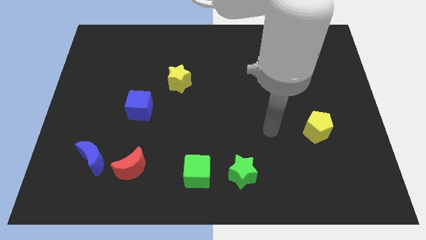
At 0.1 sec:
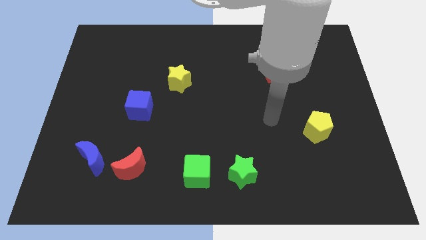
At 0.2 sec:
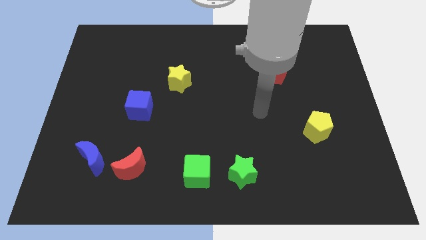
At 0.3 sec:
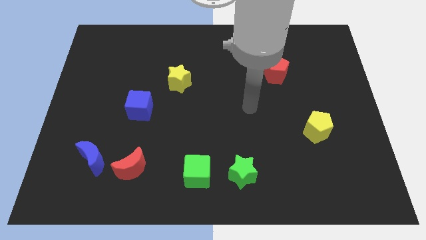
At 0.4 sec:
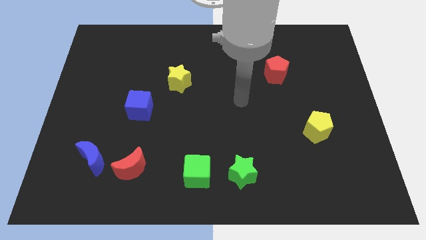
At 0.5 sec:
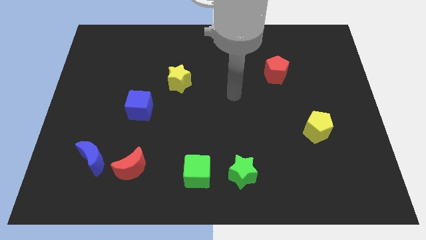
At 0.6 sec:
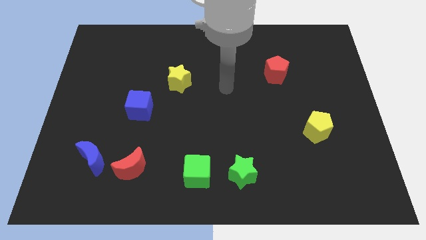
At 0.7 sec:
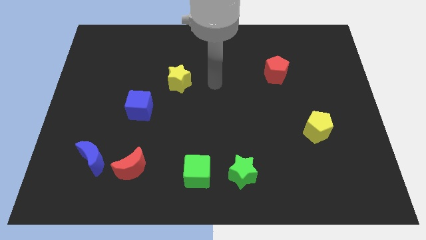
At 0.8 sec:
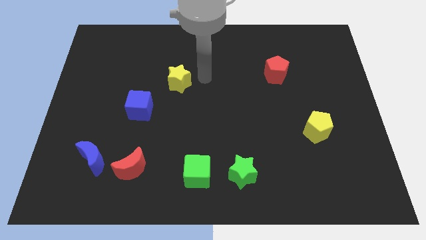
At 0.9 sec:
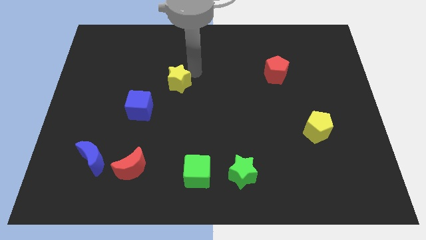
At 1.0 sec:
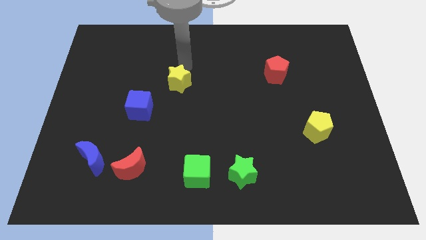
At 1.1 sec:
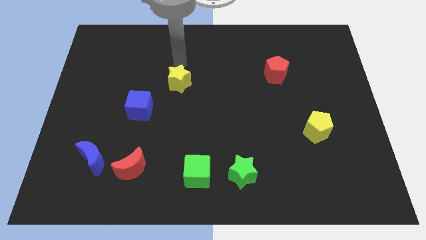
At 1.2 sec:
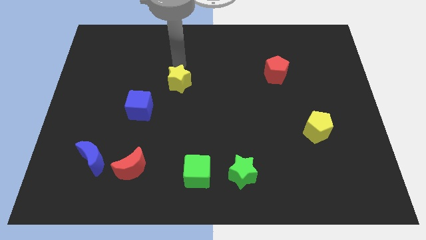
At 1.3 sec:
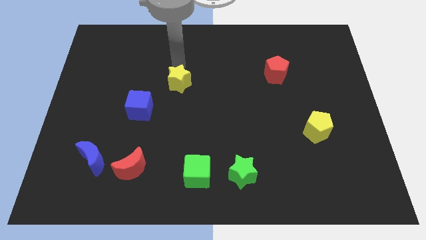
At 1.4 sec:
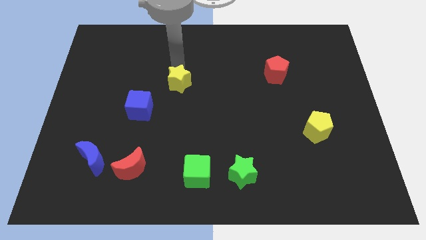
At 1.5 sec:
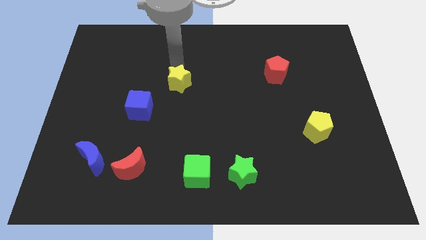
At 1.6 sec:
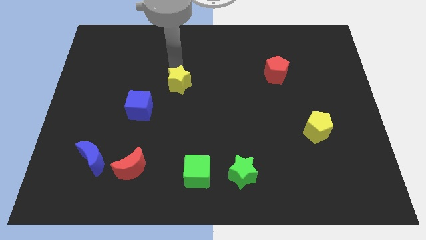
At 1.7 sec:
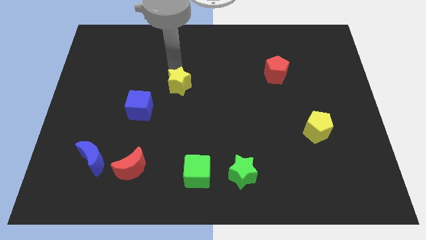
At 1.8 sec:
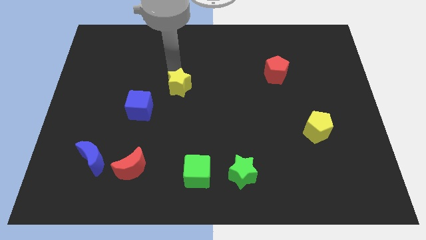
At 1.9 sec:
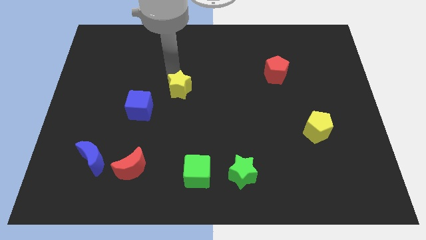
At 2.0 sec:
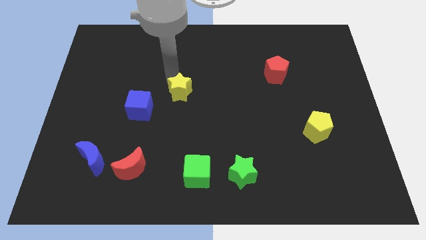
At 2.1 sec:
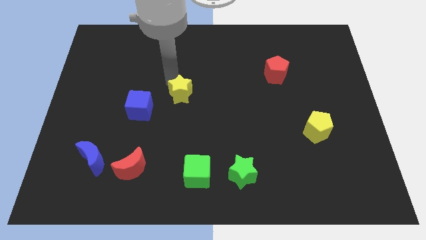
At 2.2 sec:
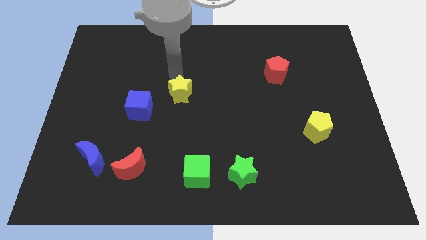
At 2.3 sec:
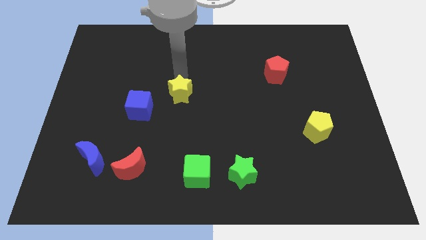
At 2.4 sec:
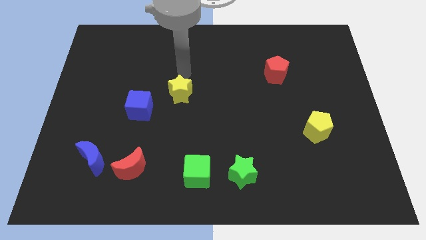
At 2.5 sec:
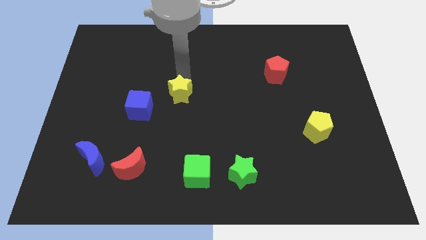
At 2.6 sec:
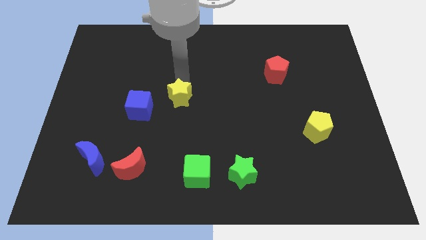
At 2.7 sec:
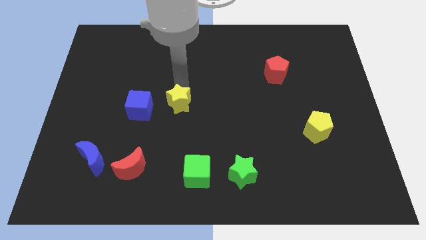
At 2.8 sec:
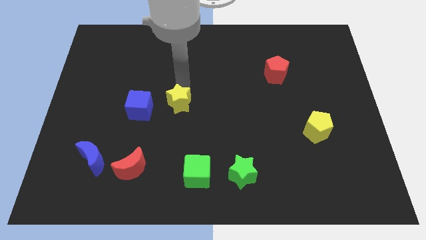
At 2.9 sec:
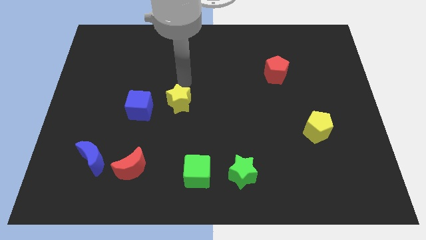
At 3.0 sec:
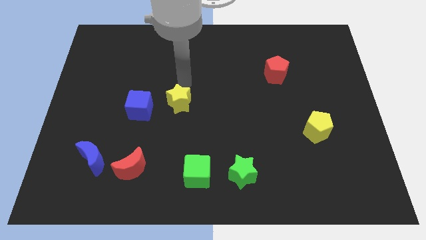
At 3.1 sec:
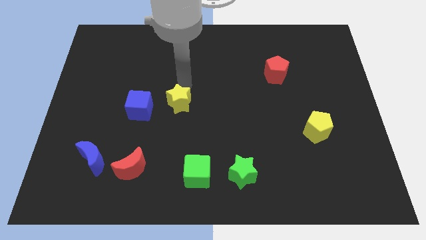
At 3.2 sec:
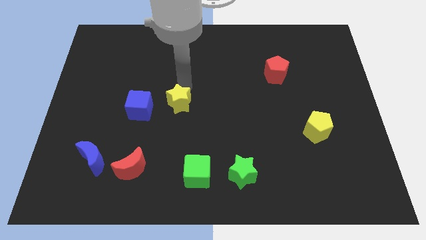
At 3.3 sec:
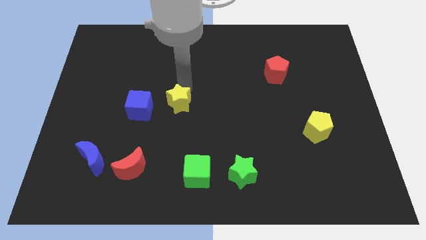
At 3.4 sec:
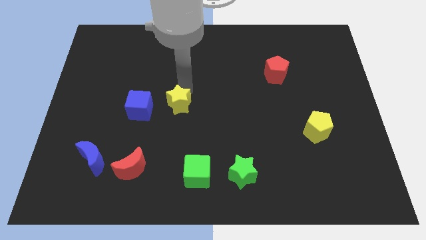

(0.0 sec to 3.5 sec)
push the yellow star a little bit down

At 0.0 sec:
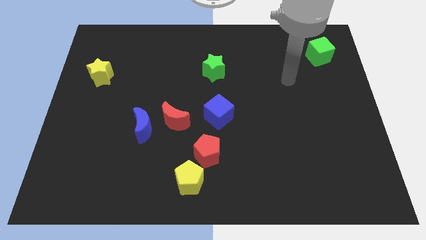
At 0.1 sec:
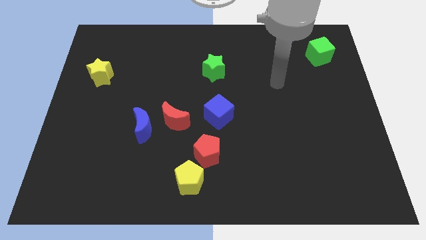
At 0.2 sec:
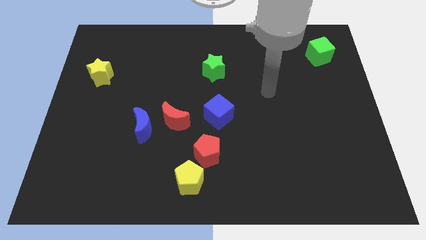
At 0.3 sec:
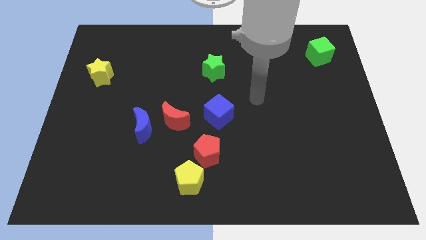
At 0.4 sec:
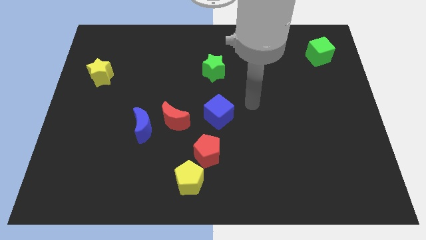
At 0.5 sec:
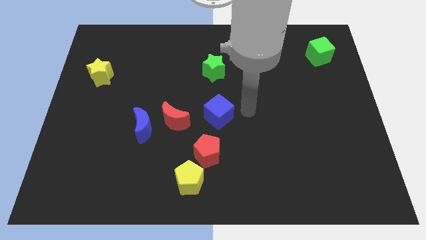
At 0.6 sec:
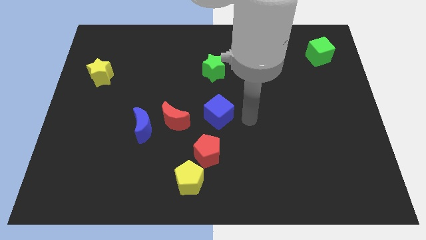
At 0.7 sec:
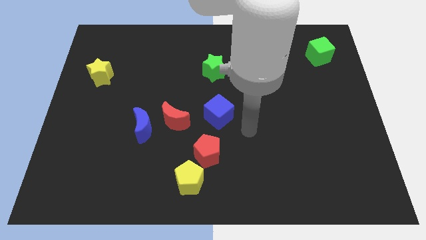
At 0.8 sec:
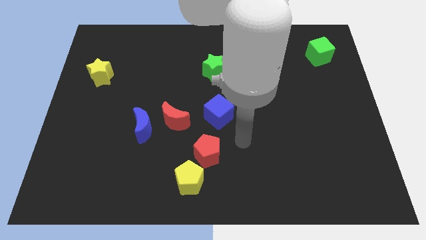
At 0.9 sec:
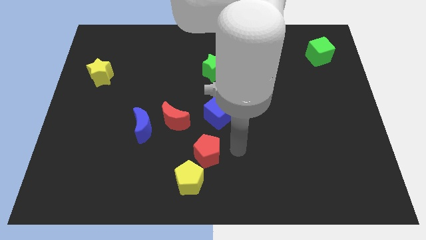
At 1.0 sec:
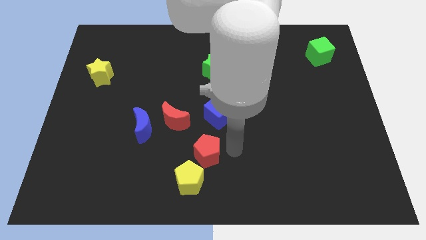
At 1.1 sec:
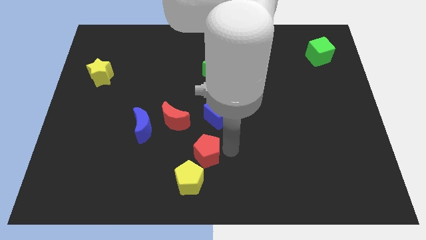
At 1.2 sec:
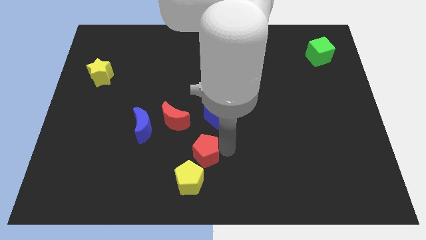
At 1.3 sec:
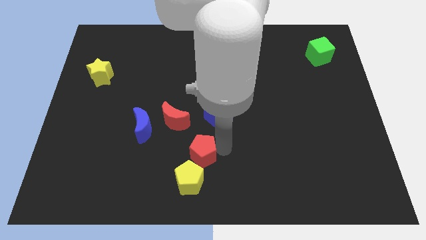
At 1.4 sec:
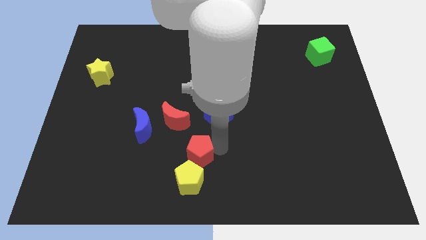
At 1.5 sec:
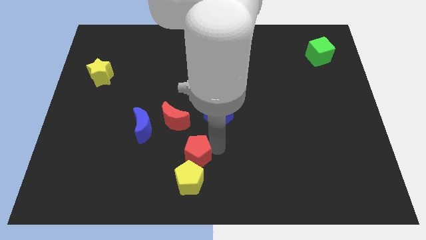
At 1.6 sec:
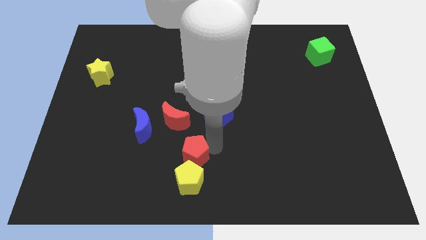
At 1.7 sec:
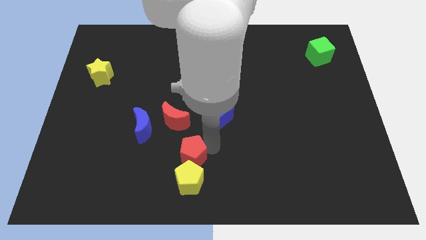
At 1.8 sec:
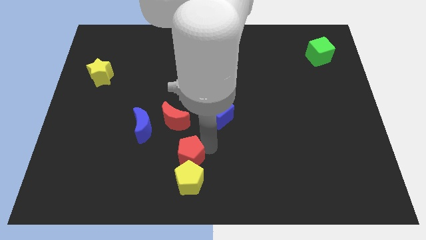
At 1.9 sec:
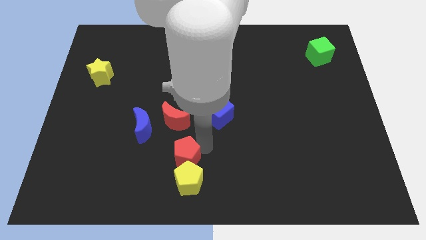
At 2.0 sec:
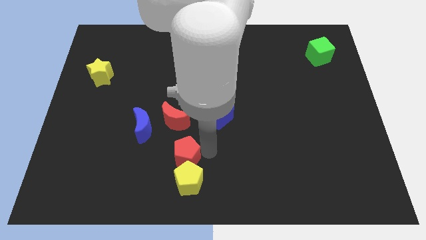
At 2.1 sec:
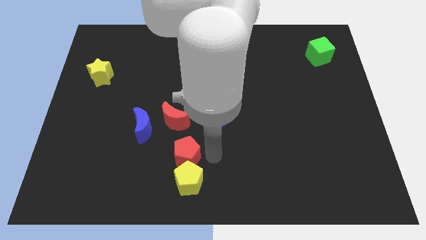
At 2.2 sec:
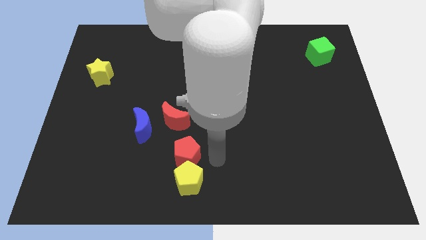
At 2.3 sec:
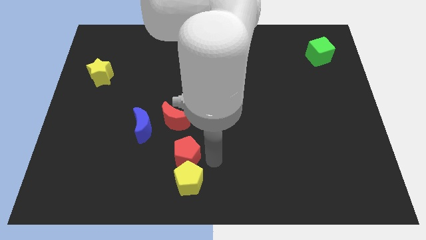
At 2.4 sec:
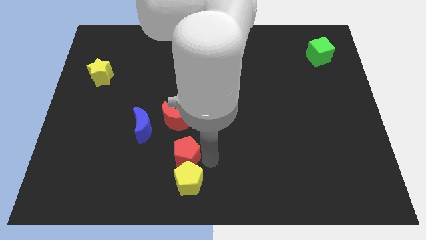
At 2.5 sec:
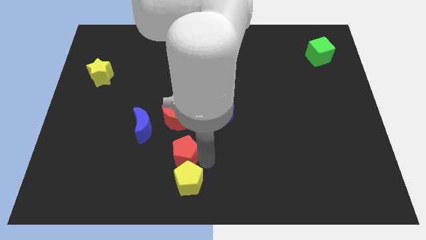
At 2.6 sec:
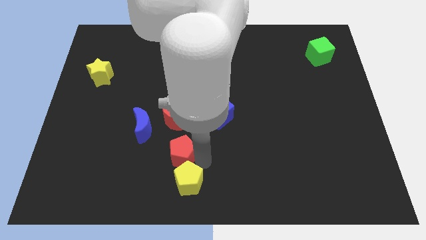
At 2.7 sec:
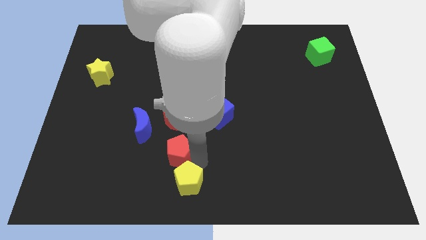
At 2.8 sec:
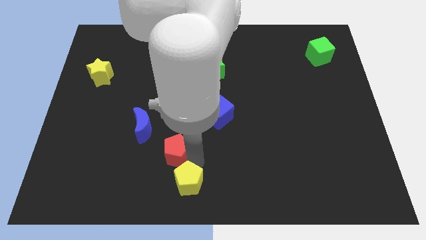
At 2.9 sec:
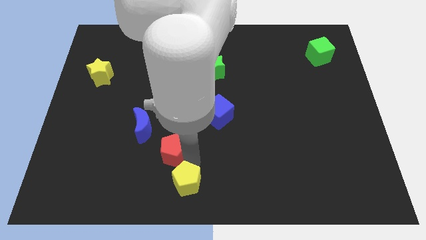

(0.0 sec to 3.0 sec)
slightly slide the red pentagon left

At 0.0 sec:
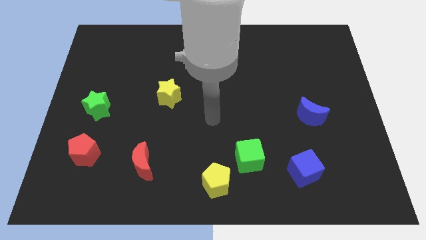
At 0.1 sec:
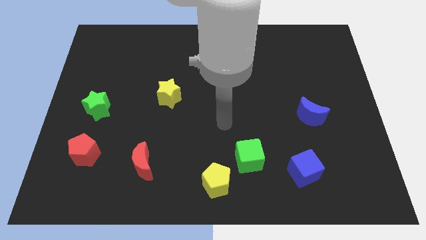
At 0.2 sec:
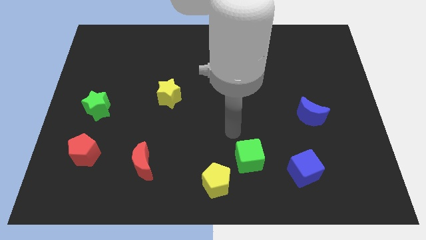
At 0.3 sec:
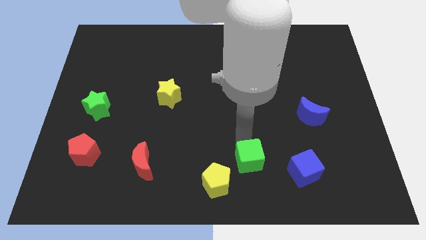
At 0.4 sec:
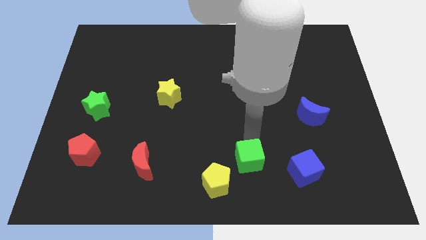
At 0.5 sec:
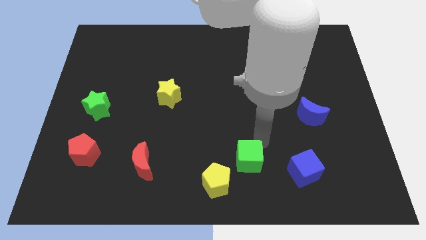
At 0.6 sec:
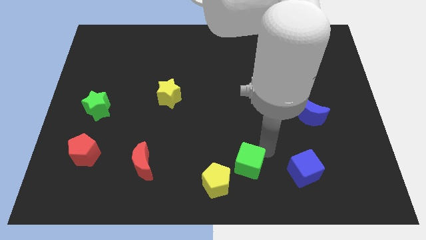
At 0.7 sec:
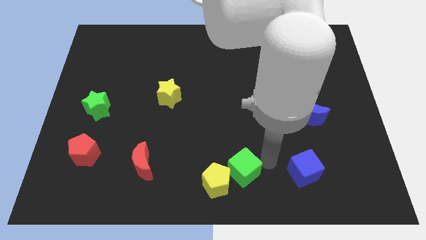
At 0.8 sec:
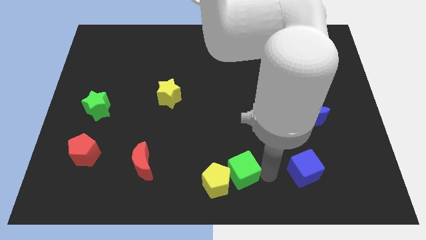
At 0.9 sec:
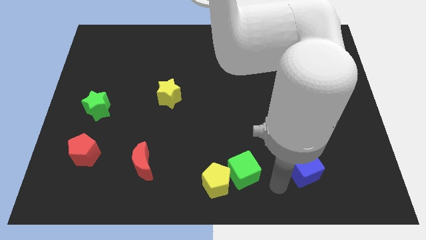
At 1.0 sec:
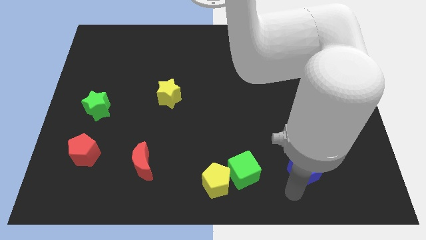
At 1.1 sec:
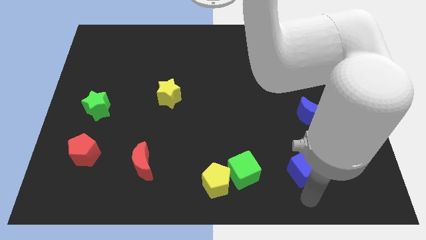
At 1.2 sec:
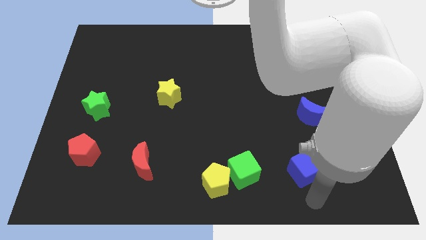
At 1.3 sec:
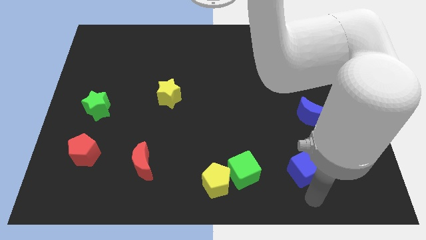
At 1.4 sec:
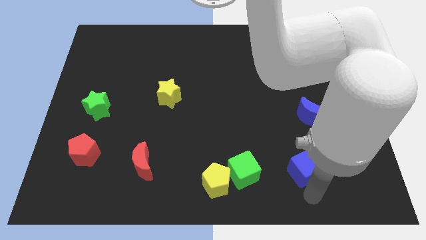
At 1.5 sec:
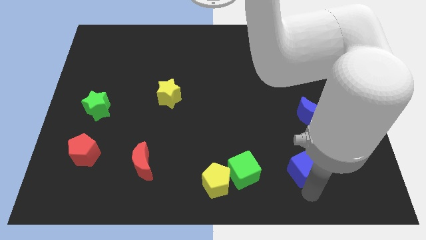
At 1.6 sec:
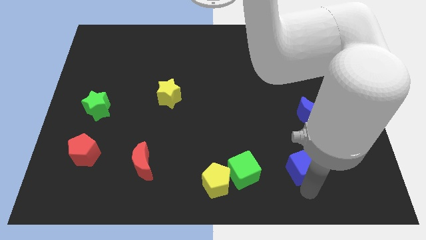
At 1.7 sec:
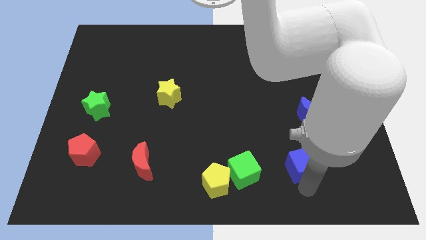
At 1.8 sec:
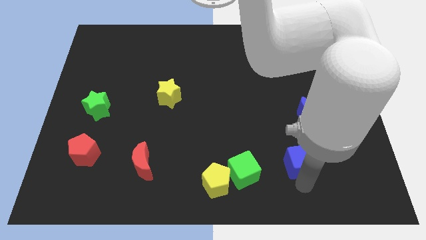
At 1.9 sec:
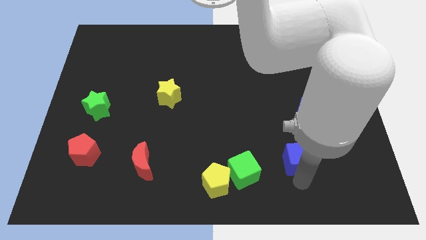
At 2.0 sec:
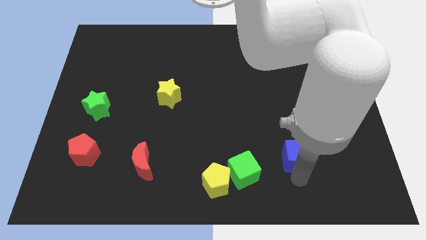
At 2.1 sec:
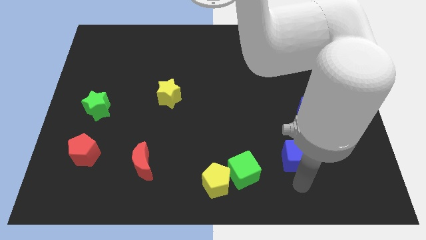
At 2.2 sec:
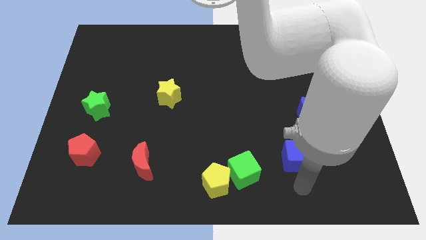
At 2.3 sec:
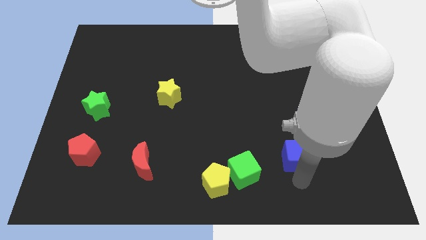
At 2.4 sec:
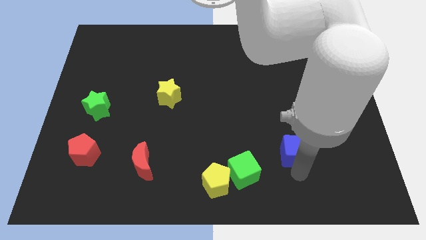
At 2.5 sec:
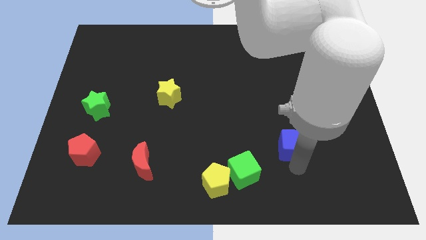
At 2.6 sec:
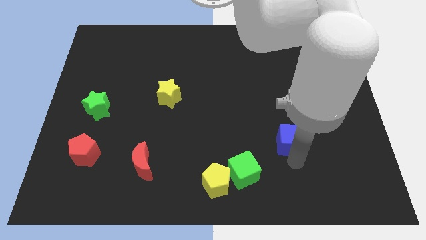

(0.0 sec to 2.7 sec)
slightly move the blue cube up
